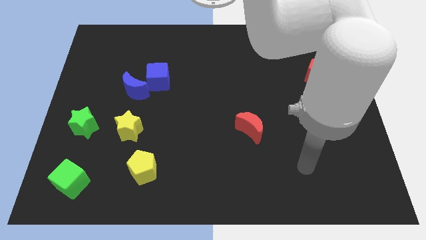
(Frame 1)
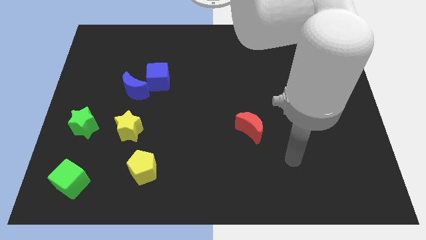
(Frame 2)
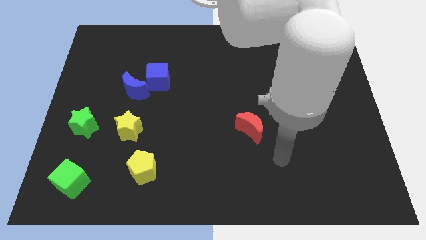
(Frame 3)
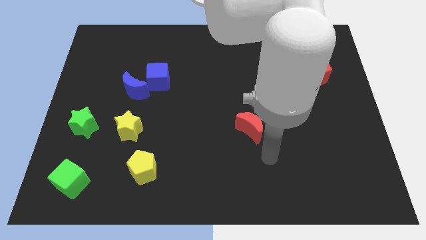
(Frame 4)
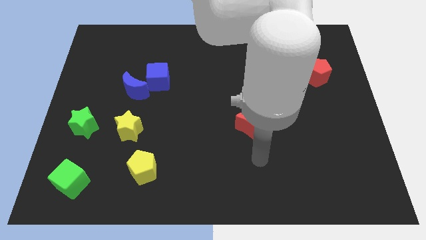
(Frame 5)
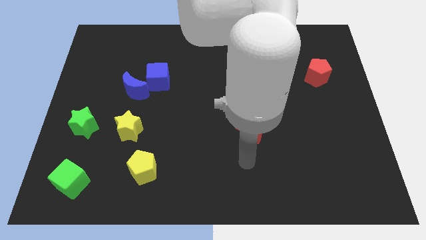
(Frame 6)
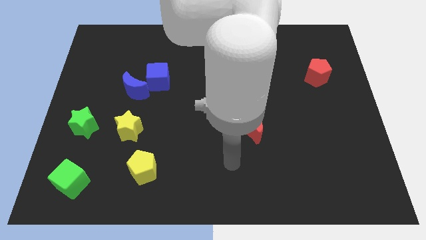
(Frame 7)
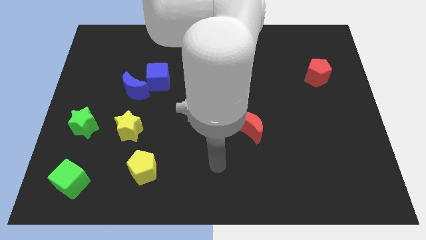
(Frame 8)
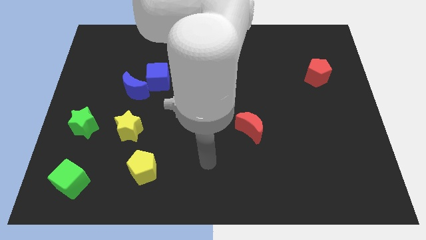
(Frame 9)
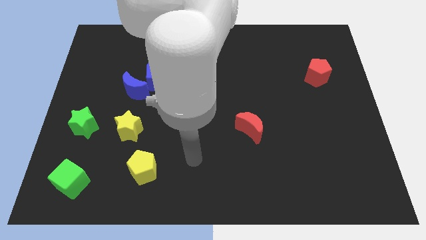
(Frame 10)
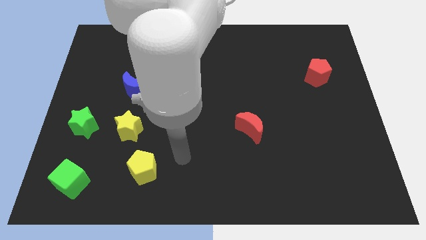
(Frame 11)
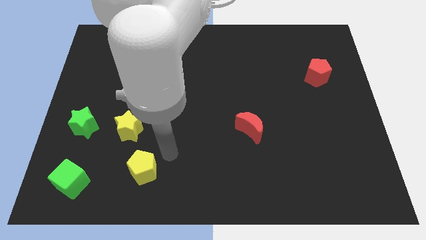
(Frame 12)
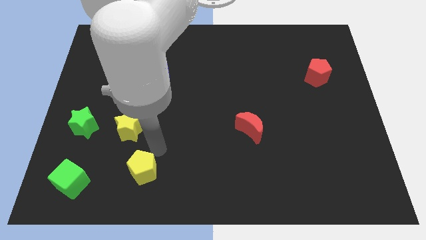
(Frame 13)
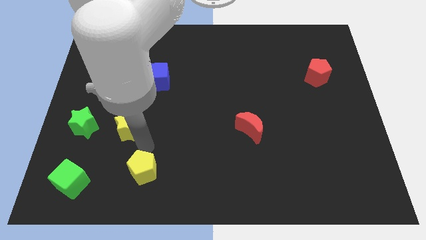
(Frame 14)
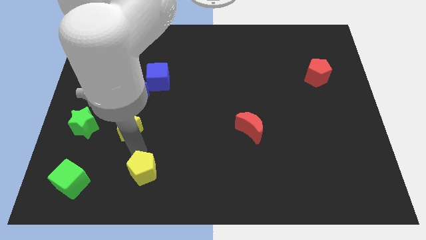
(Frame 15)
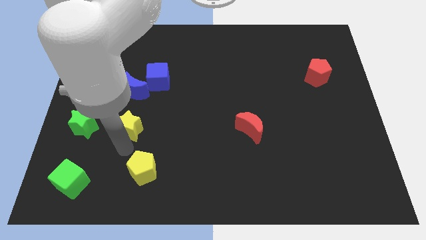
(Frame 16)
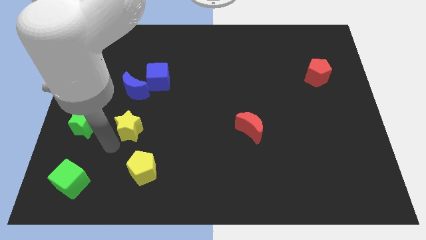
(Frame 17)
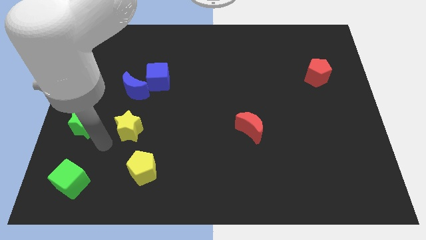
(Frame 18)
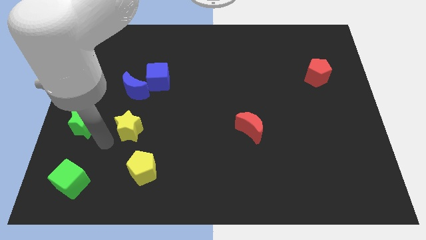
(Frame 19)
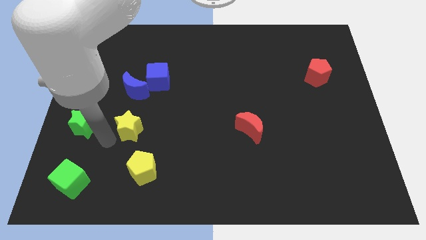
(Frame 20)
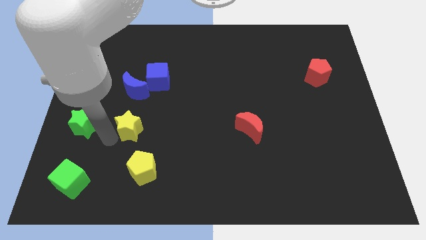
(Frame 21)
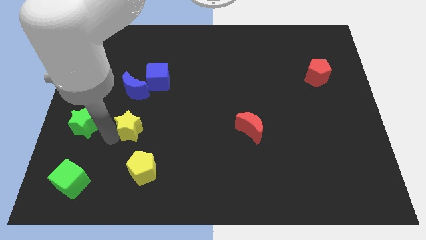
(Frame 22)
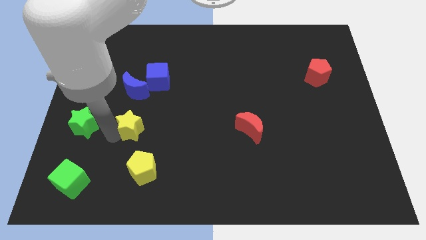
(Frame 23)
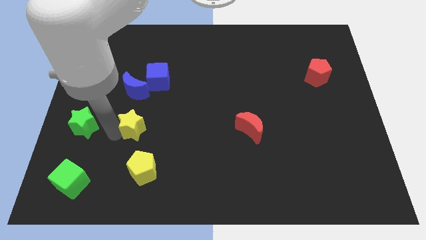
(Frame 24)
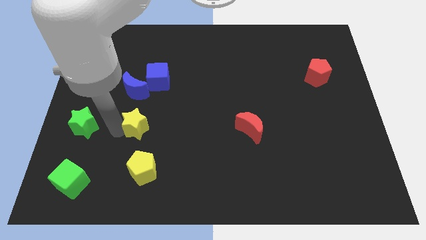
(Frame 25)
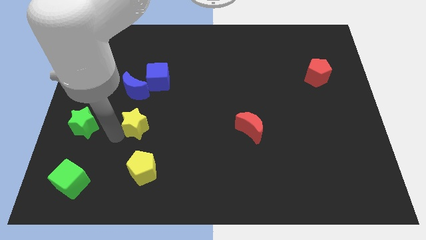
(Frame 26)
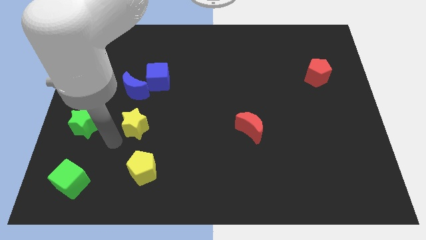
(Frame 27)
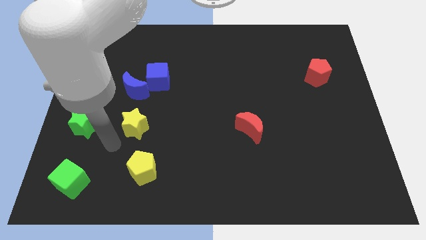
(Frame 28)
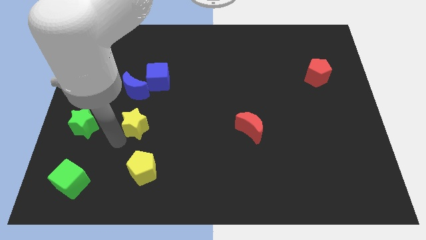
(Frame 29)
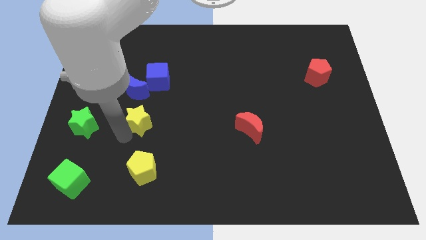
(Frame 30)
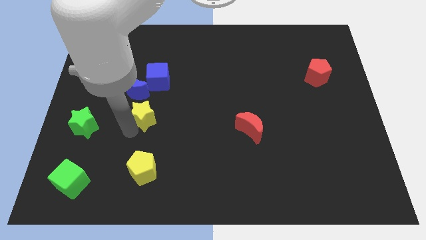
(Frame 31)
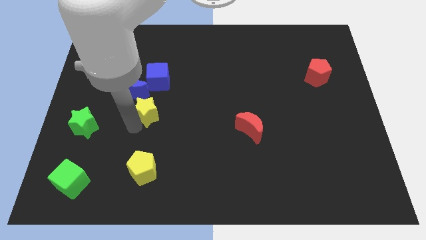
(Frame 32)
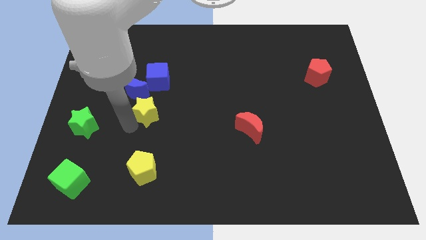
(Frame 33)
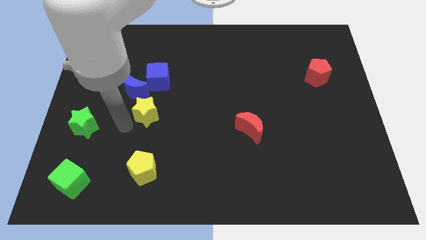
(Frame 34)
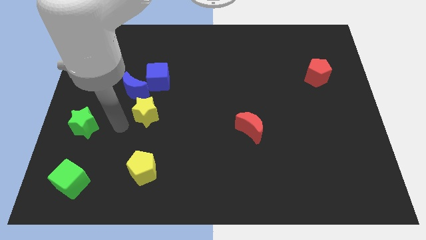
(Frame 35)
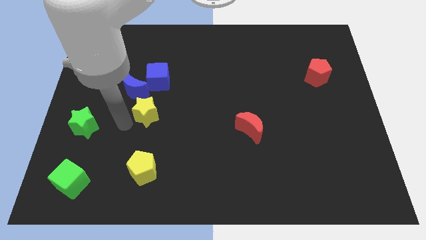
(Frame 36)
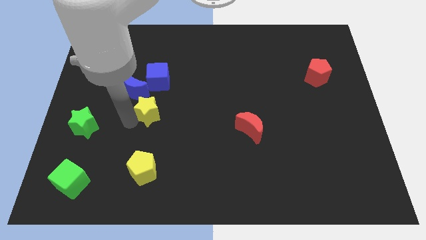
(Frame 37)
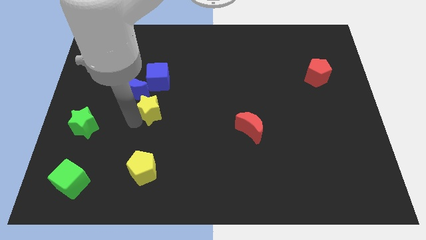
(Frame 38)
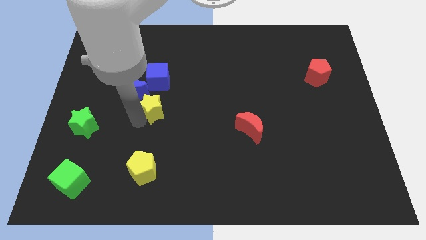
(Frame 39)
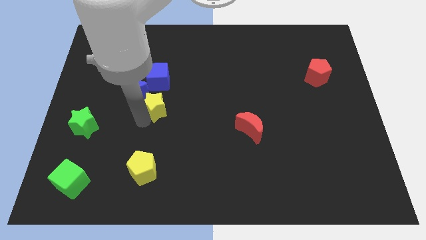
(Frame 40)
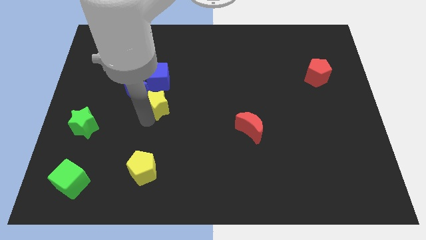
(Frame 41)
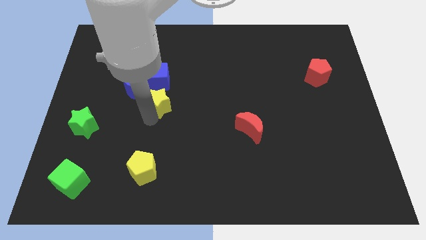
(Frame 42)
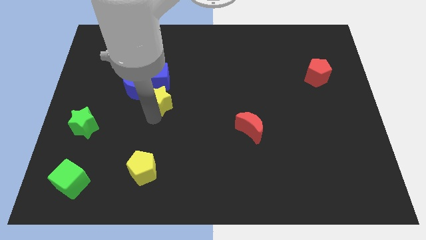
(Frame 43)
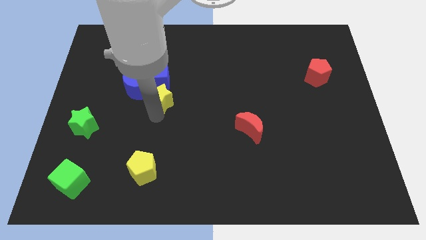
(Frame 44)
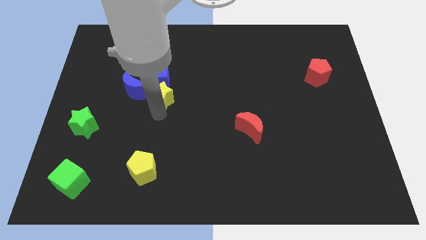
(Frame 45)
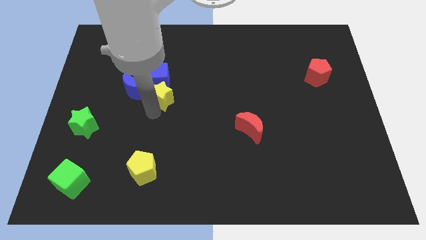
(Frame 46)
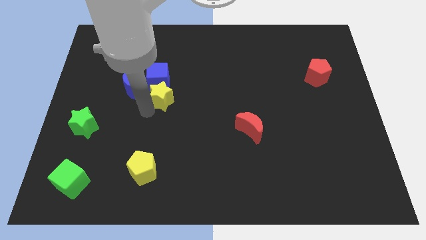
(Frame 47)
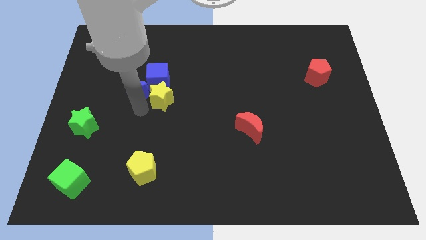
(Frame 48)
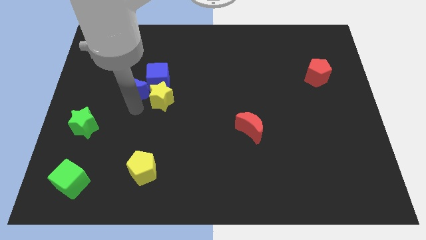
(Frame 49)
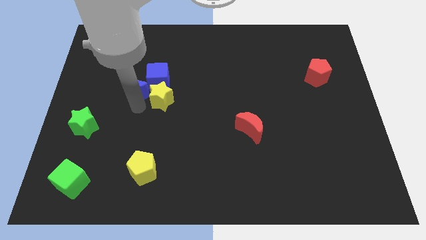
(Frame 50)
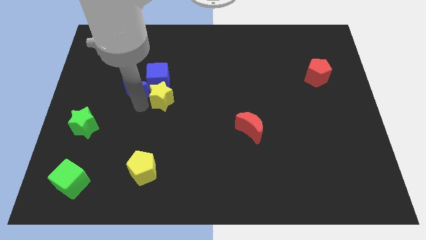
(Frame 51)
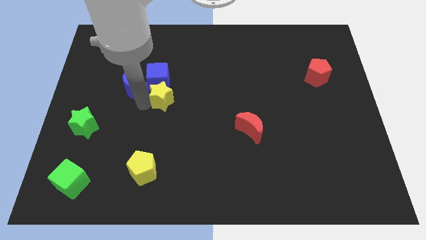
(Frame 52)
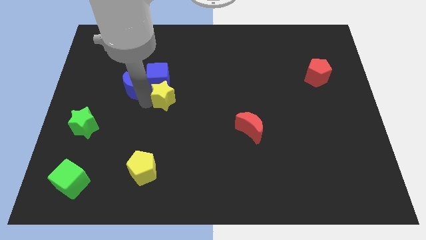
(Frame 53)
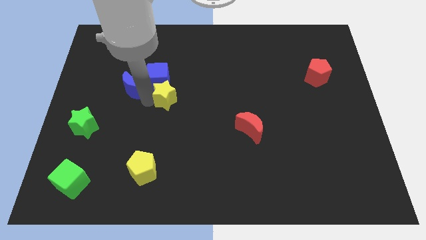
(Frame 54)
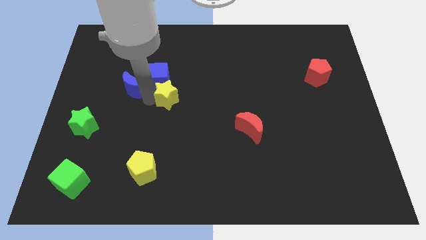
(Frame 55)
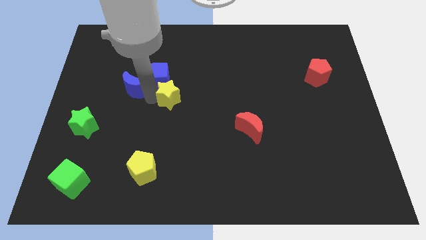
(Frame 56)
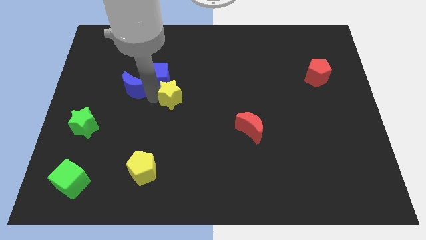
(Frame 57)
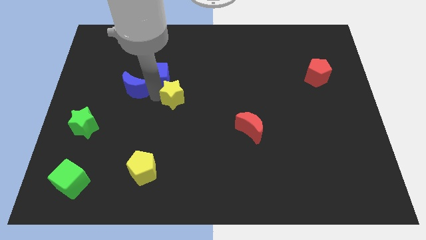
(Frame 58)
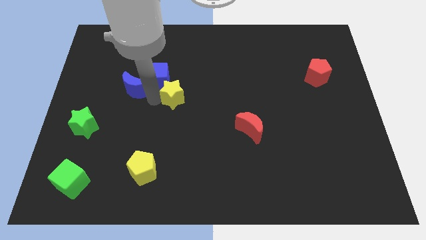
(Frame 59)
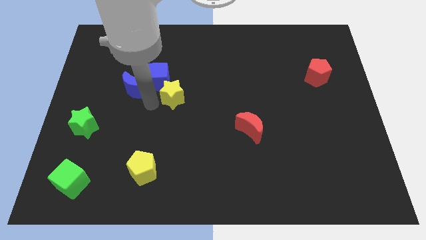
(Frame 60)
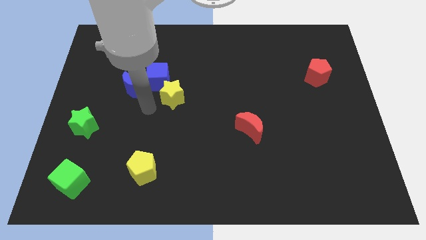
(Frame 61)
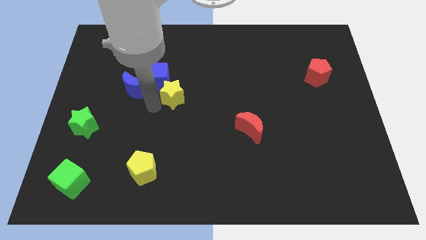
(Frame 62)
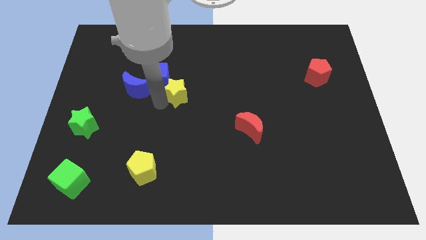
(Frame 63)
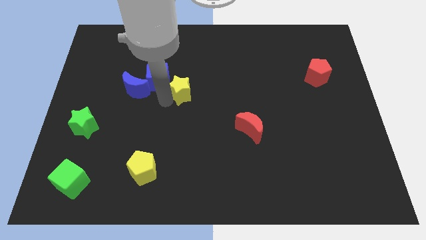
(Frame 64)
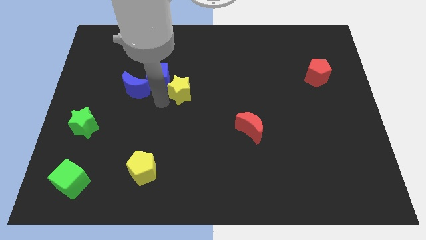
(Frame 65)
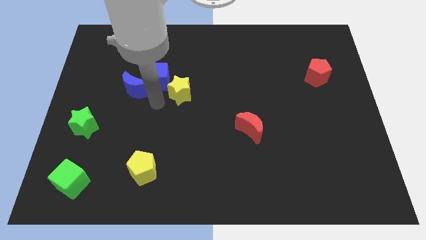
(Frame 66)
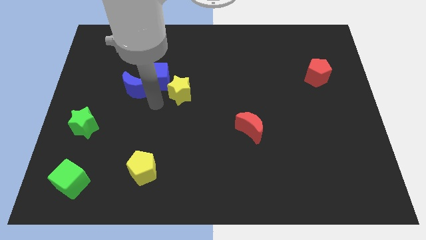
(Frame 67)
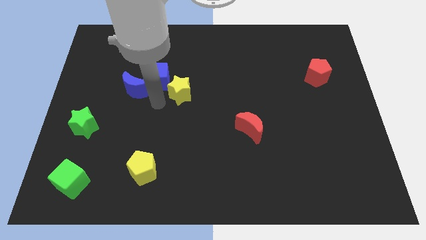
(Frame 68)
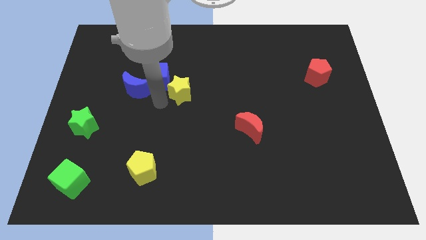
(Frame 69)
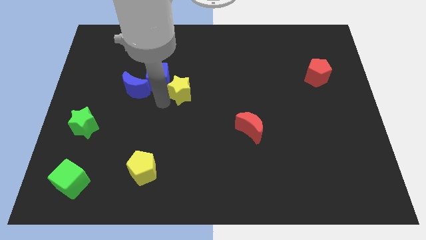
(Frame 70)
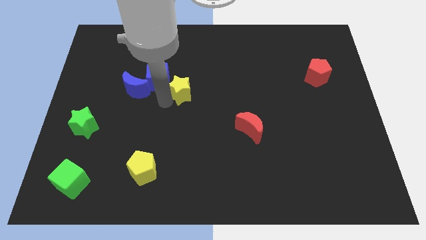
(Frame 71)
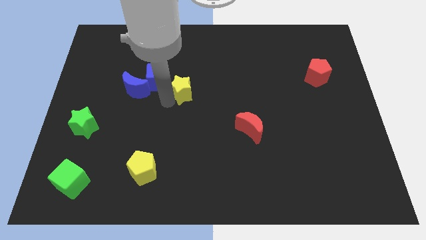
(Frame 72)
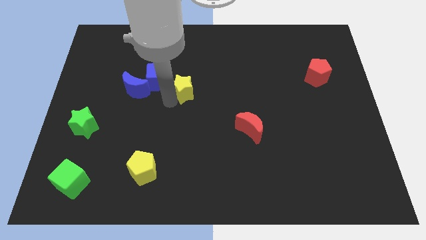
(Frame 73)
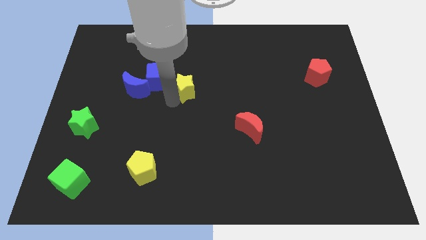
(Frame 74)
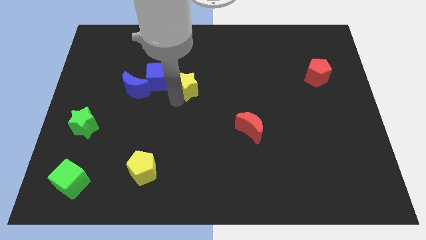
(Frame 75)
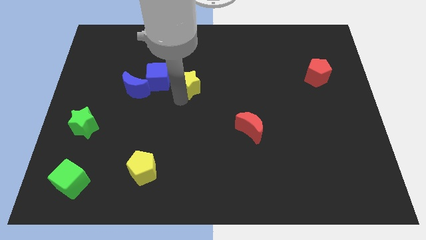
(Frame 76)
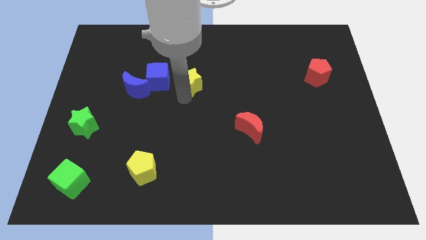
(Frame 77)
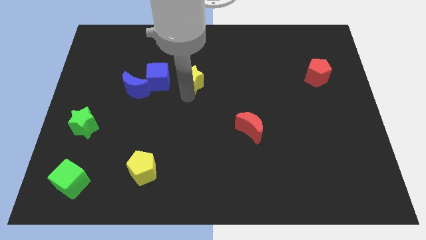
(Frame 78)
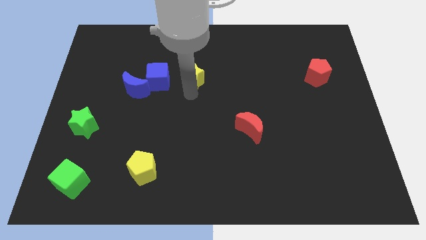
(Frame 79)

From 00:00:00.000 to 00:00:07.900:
slide the yellow star diagonally upwards and to the right

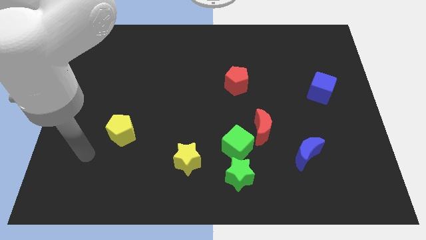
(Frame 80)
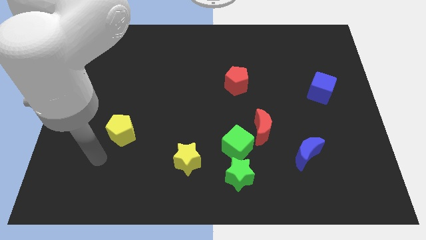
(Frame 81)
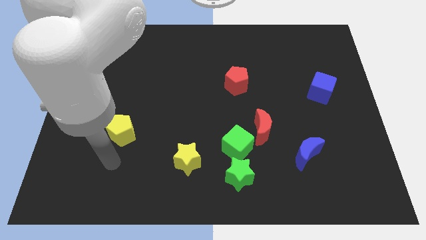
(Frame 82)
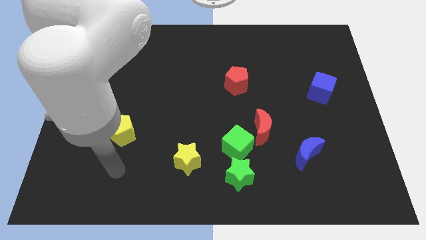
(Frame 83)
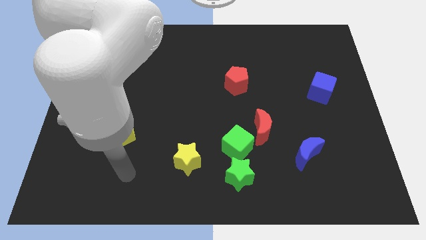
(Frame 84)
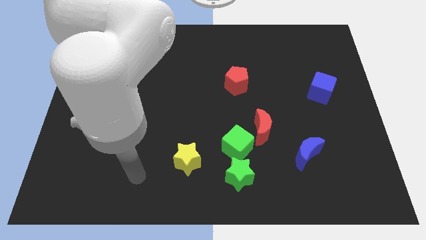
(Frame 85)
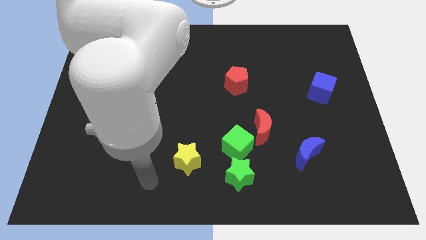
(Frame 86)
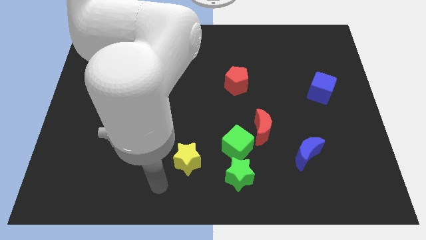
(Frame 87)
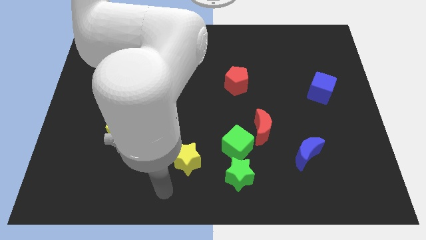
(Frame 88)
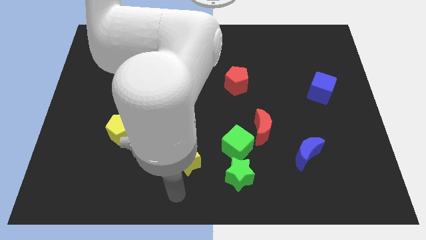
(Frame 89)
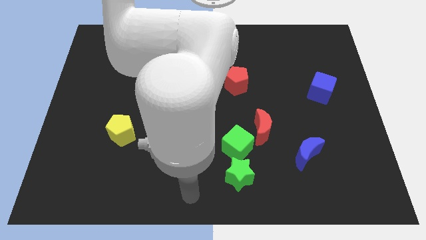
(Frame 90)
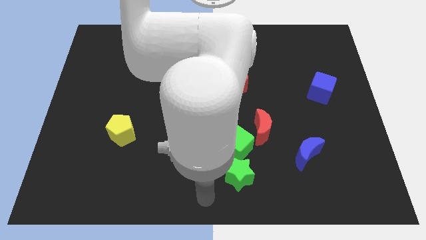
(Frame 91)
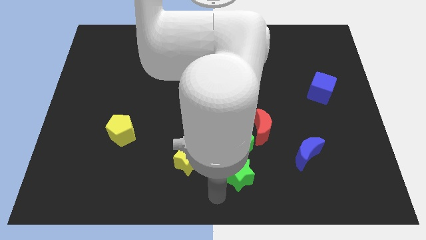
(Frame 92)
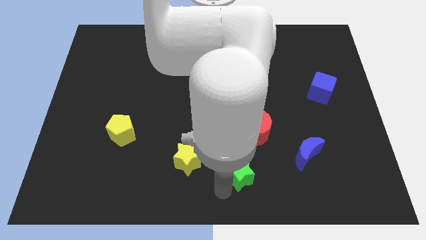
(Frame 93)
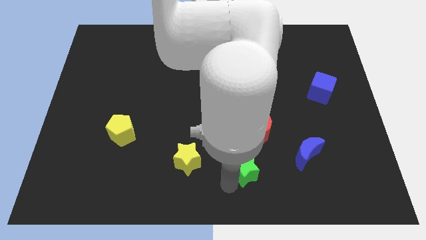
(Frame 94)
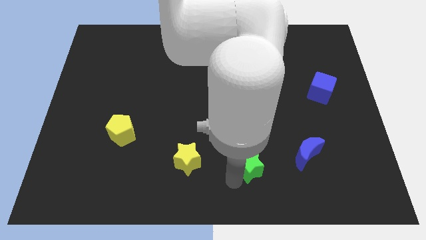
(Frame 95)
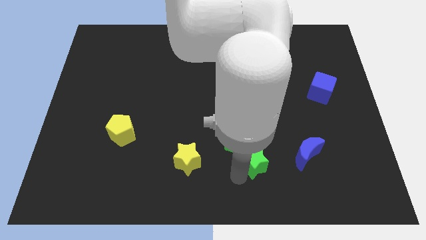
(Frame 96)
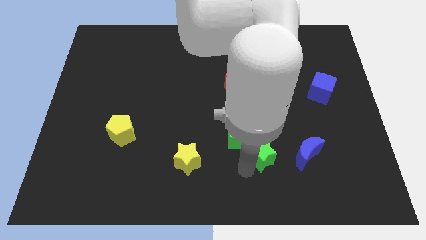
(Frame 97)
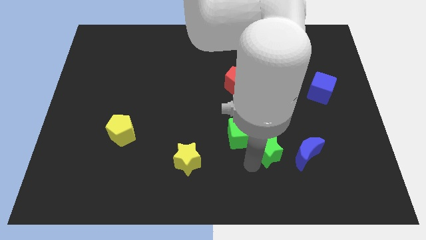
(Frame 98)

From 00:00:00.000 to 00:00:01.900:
slide the green star a little upwards and then to the right
